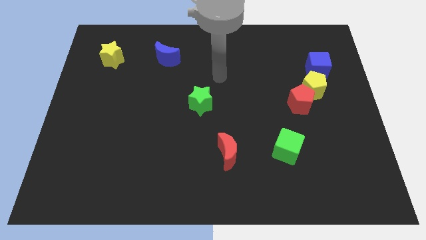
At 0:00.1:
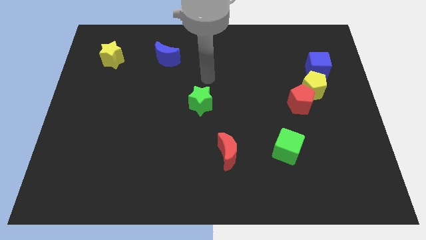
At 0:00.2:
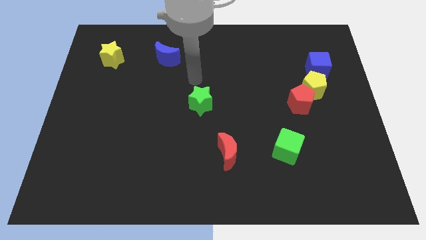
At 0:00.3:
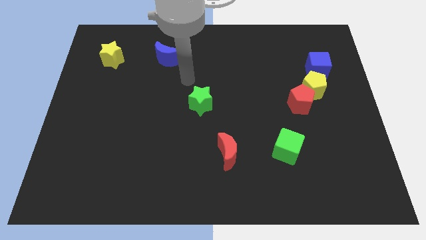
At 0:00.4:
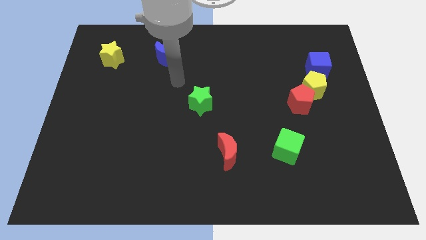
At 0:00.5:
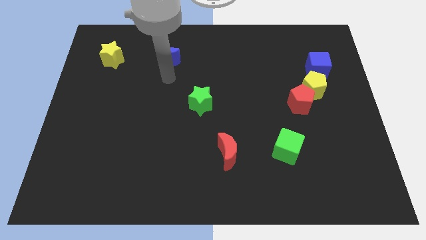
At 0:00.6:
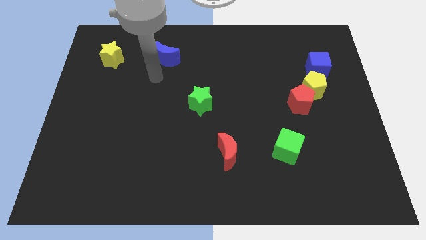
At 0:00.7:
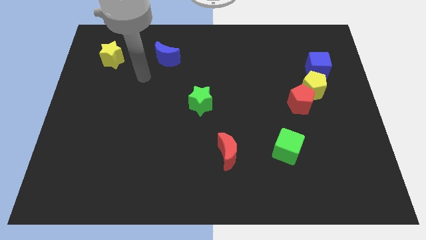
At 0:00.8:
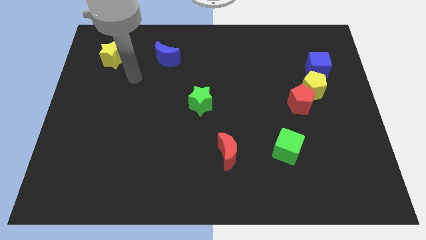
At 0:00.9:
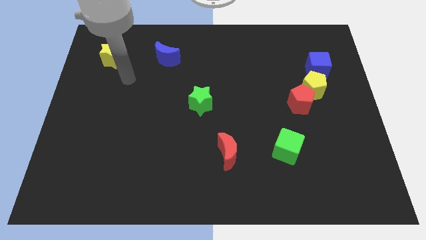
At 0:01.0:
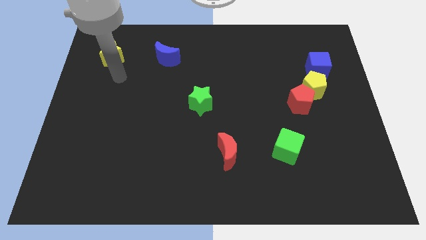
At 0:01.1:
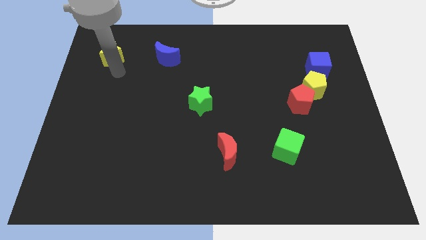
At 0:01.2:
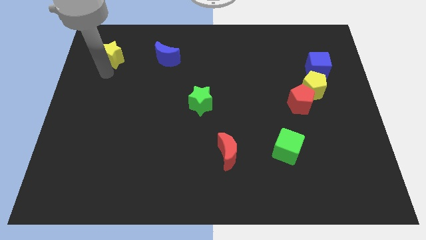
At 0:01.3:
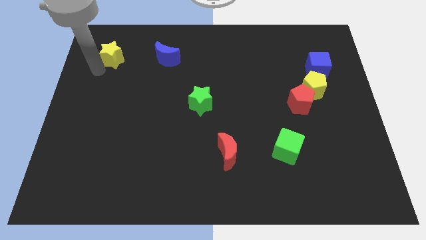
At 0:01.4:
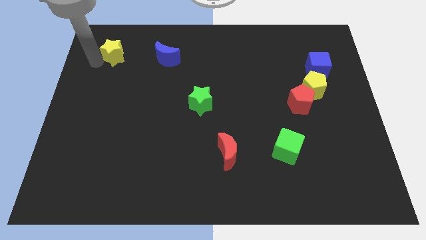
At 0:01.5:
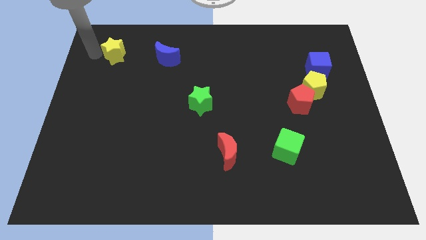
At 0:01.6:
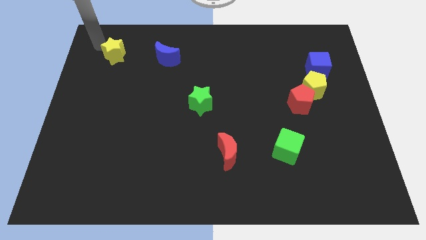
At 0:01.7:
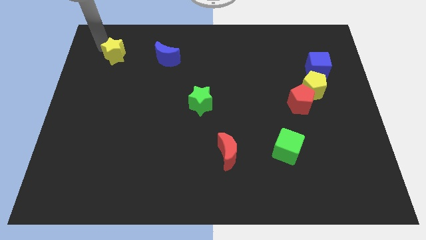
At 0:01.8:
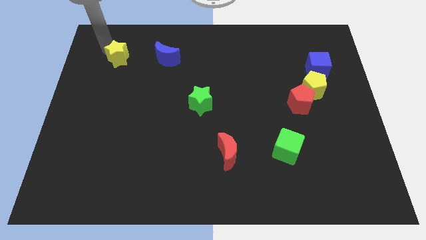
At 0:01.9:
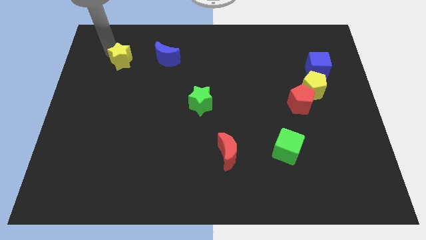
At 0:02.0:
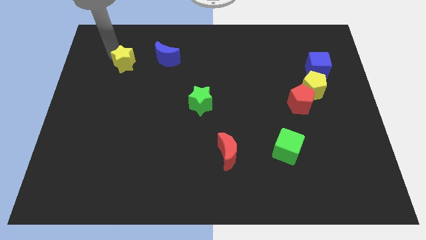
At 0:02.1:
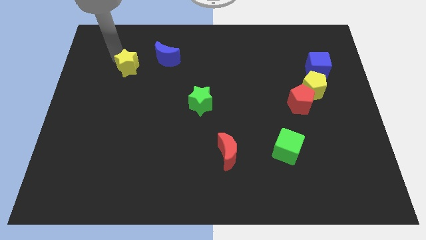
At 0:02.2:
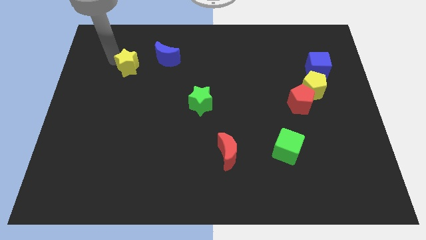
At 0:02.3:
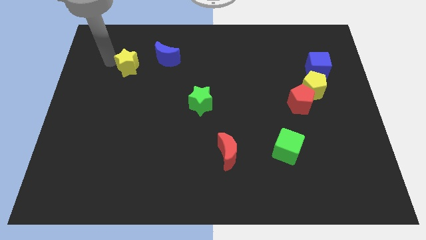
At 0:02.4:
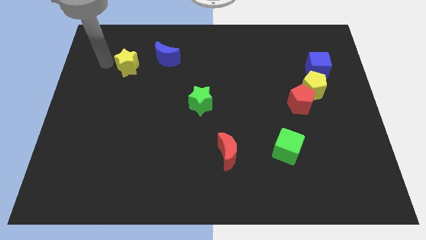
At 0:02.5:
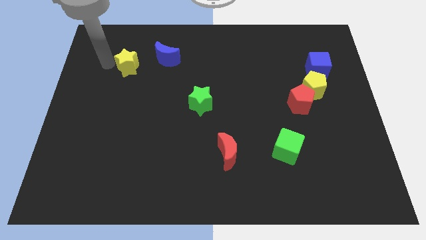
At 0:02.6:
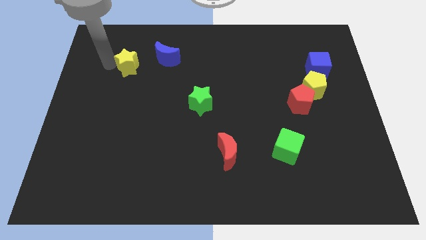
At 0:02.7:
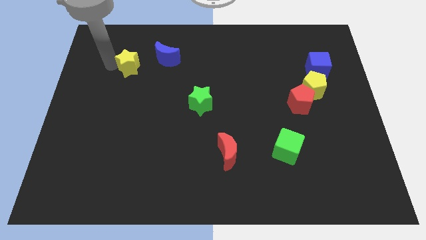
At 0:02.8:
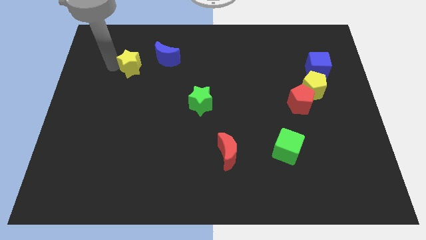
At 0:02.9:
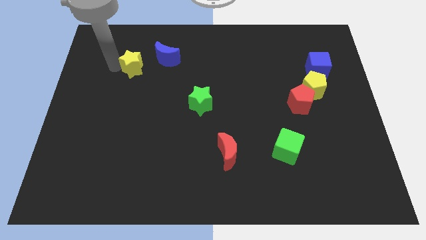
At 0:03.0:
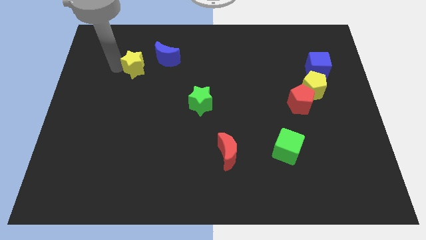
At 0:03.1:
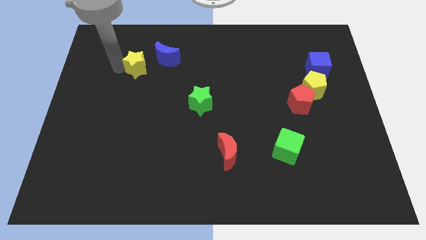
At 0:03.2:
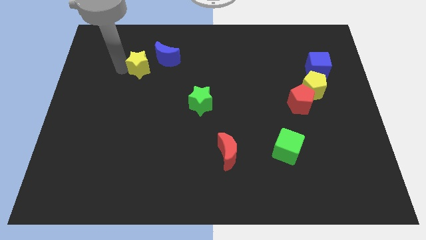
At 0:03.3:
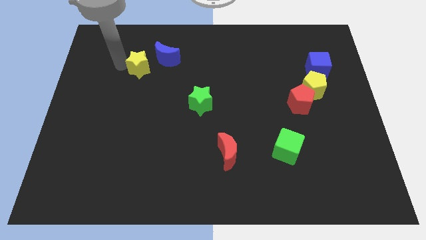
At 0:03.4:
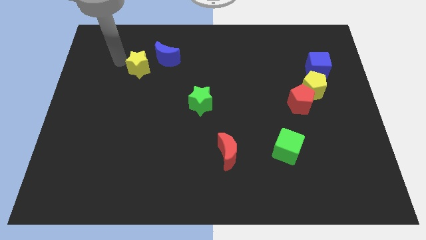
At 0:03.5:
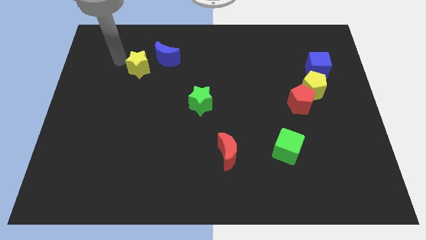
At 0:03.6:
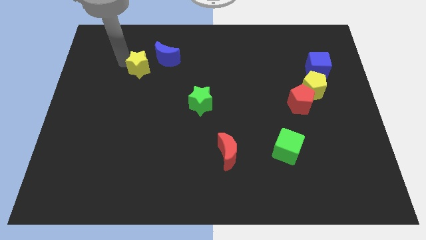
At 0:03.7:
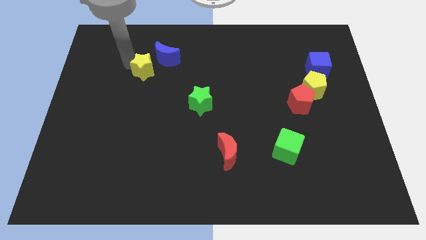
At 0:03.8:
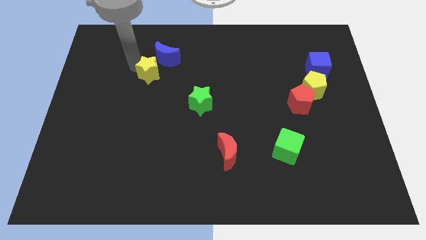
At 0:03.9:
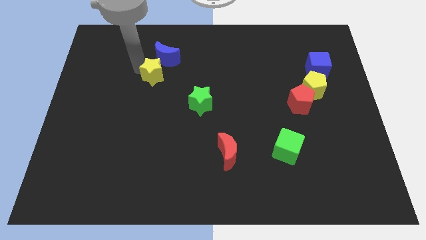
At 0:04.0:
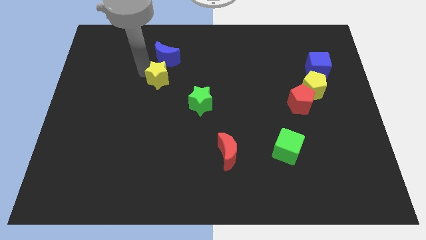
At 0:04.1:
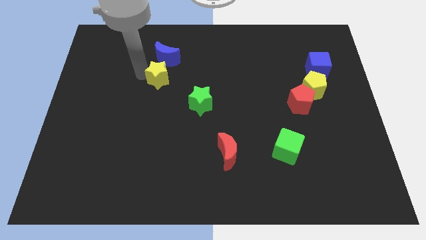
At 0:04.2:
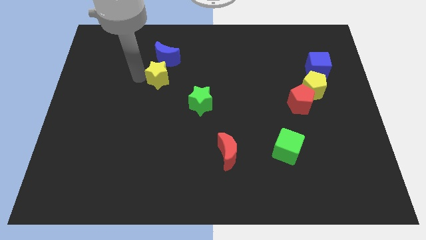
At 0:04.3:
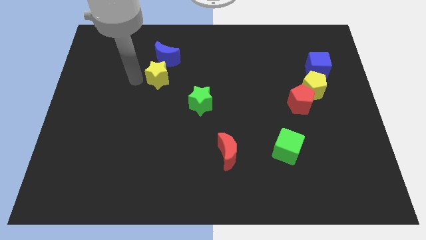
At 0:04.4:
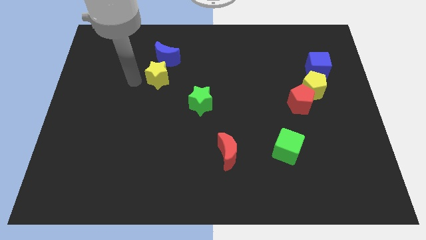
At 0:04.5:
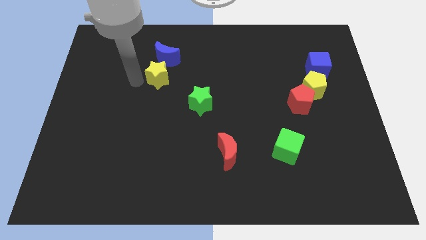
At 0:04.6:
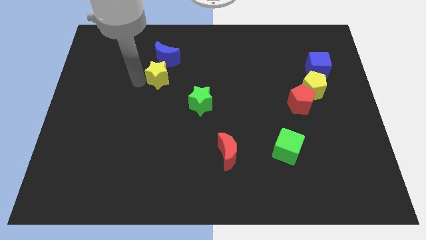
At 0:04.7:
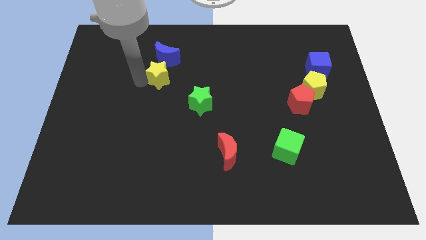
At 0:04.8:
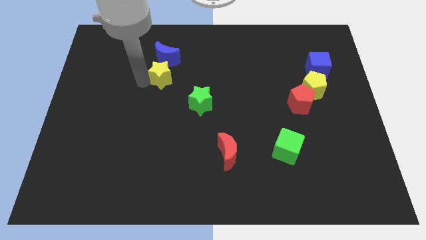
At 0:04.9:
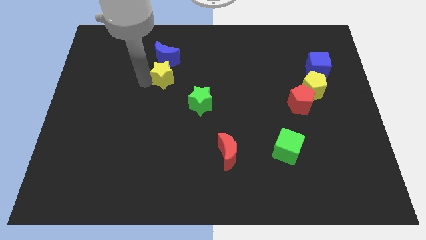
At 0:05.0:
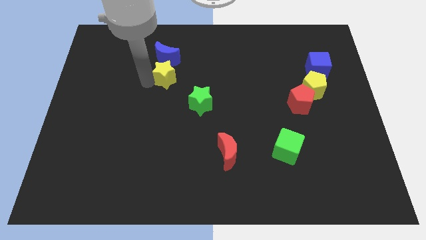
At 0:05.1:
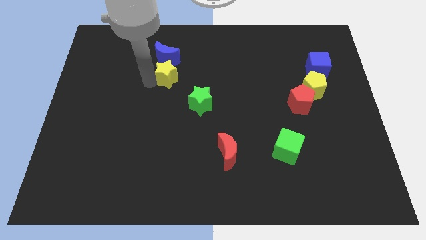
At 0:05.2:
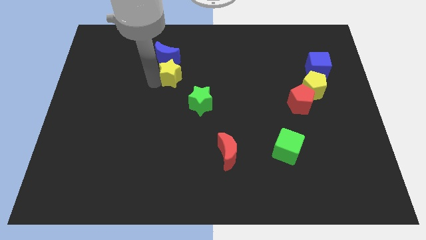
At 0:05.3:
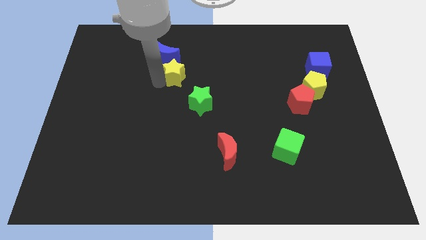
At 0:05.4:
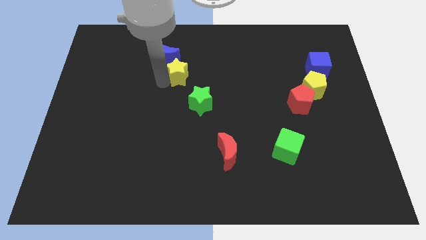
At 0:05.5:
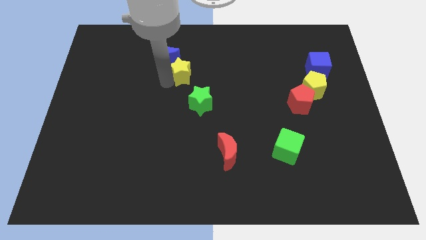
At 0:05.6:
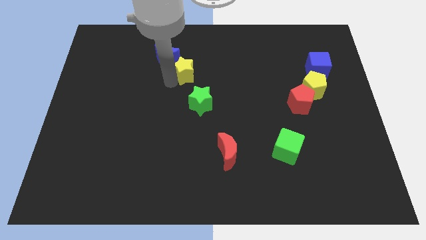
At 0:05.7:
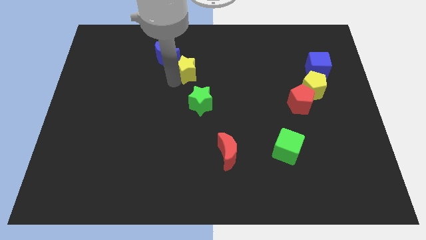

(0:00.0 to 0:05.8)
move the yellow star right of the blue moon
